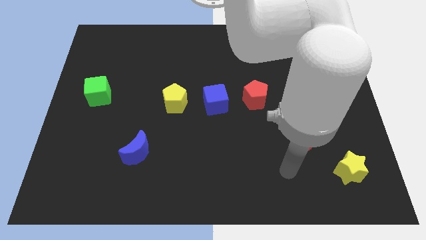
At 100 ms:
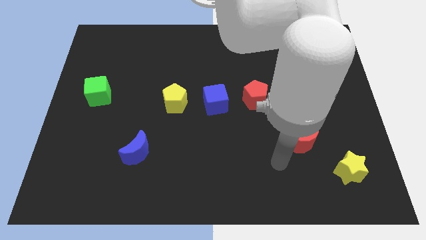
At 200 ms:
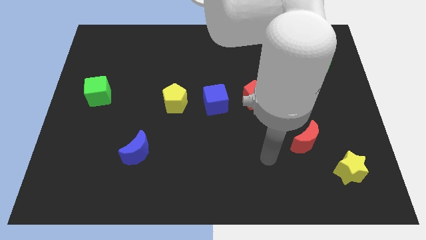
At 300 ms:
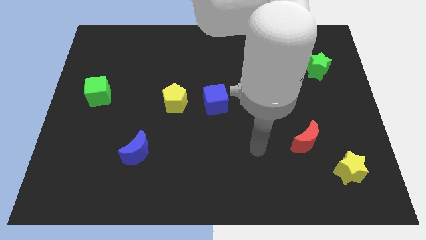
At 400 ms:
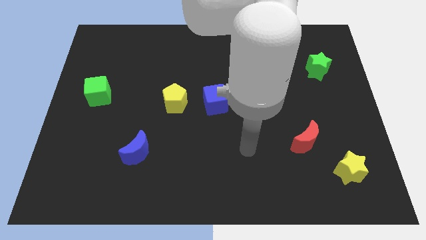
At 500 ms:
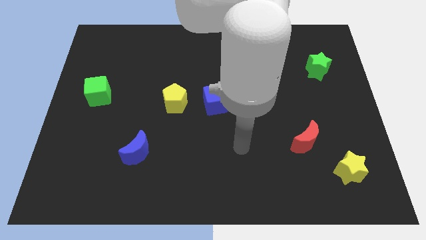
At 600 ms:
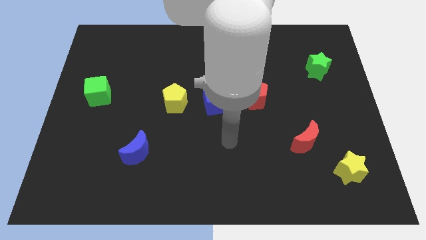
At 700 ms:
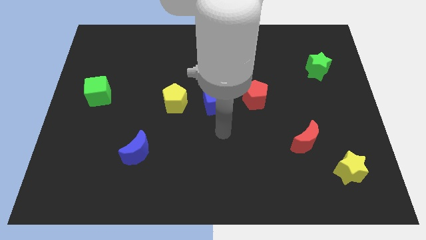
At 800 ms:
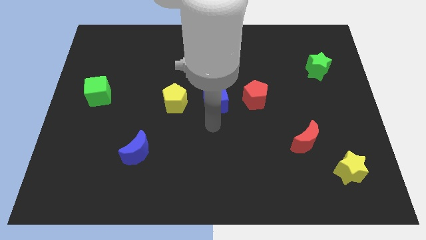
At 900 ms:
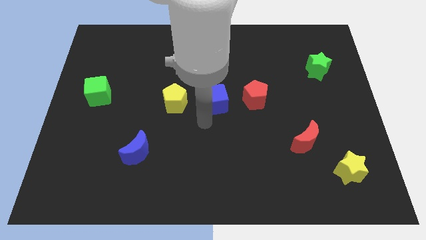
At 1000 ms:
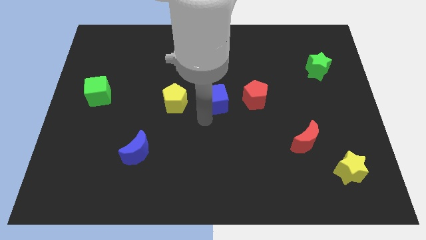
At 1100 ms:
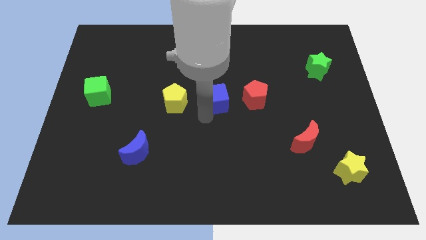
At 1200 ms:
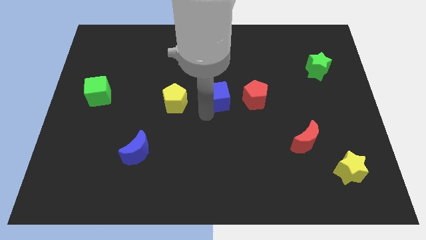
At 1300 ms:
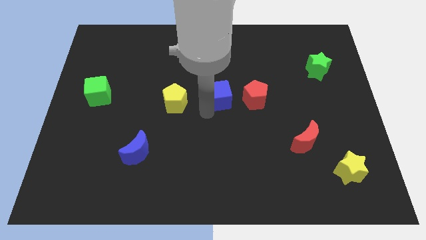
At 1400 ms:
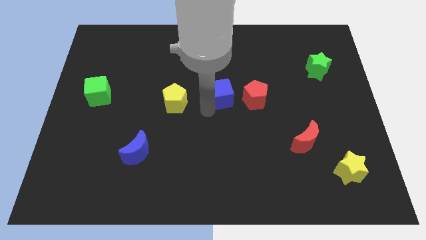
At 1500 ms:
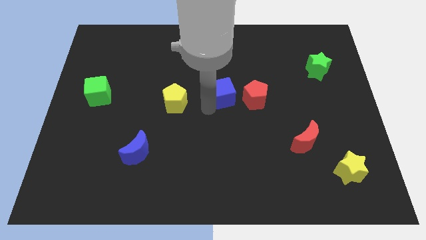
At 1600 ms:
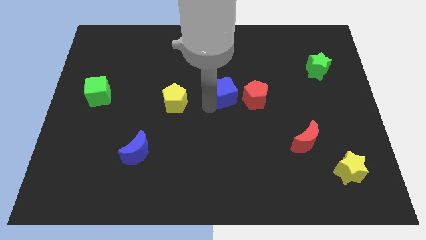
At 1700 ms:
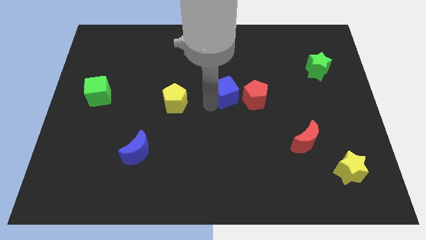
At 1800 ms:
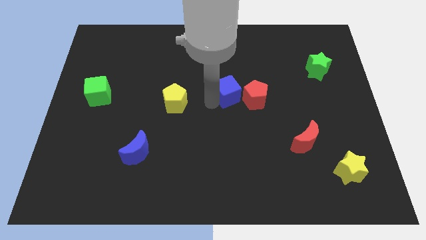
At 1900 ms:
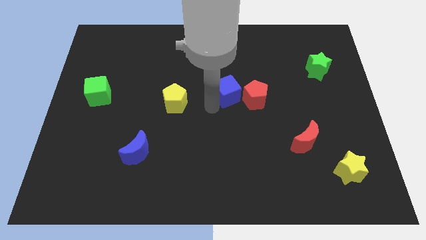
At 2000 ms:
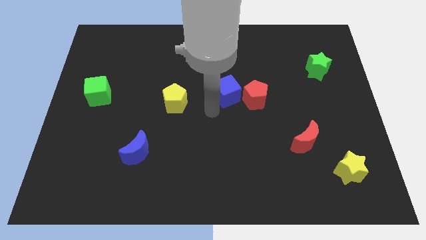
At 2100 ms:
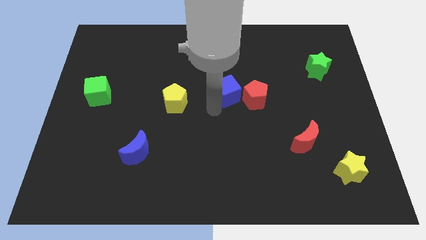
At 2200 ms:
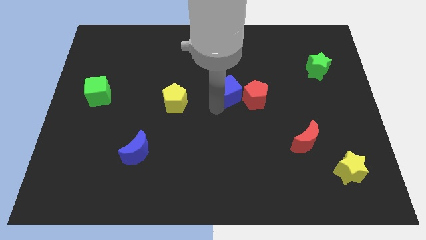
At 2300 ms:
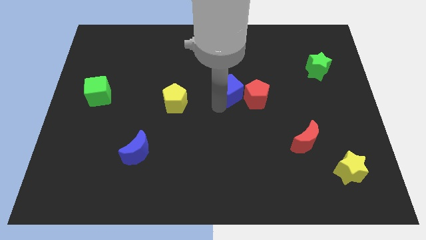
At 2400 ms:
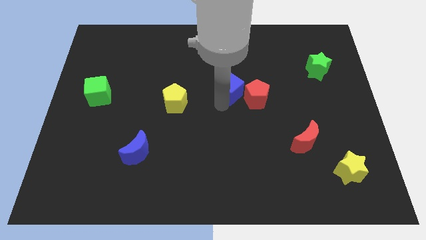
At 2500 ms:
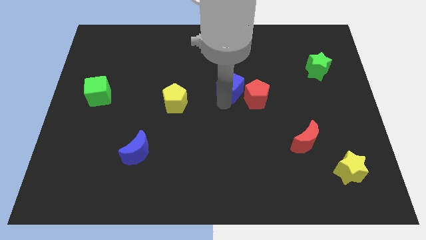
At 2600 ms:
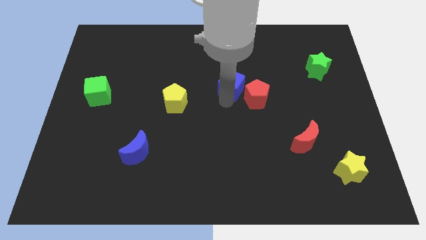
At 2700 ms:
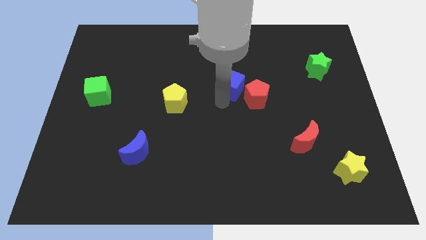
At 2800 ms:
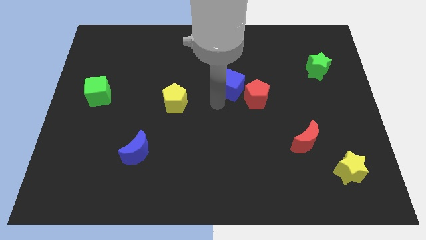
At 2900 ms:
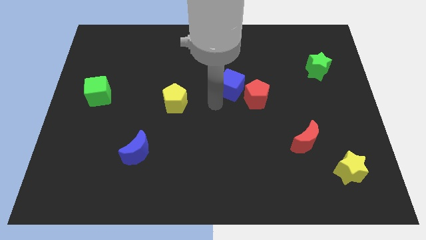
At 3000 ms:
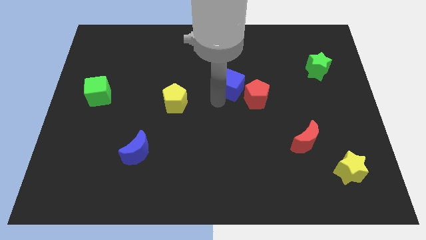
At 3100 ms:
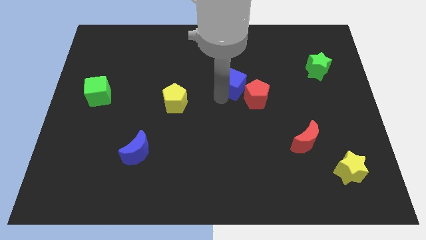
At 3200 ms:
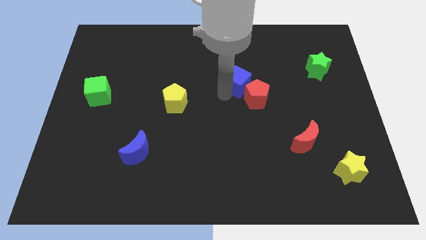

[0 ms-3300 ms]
slide the blue cube diagonally up and right a bit

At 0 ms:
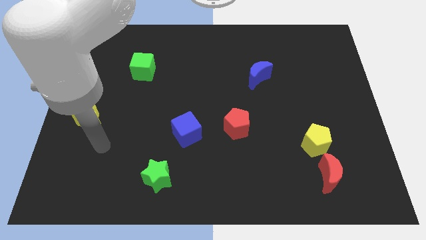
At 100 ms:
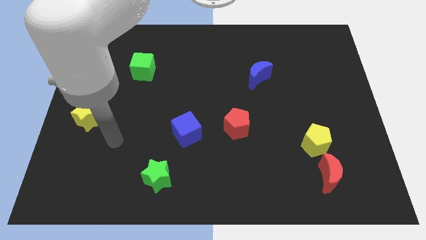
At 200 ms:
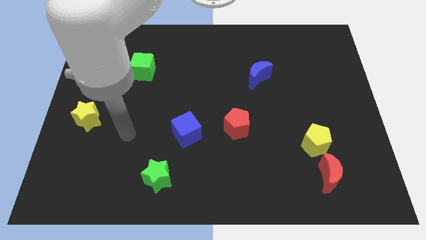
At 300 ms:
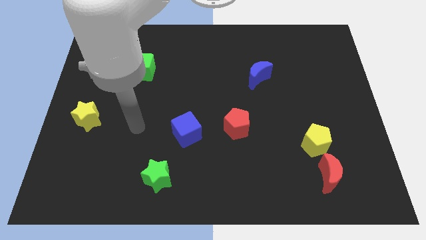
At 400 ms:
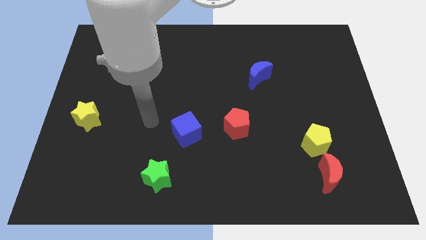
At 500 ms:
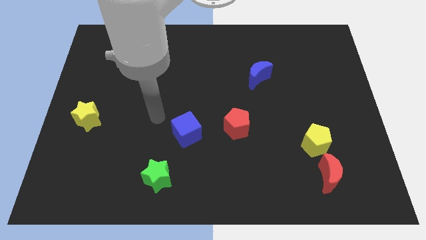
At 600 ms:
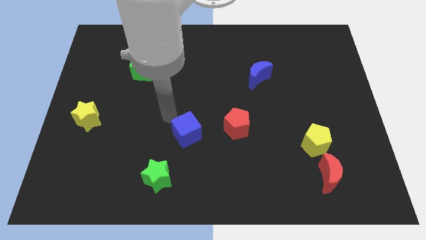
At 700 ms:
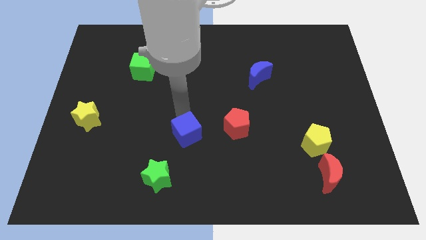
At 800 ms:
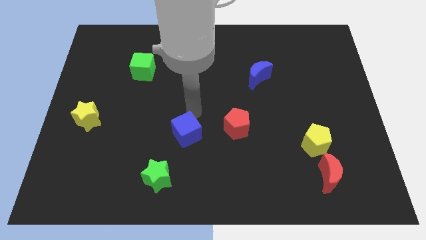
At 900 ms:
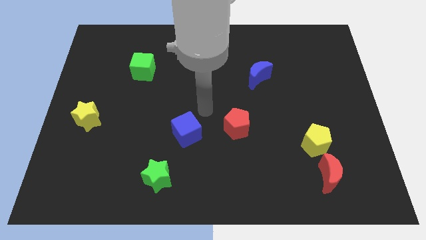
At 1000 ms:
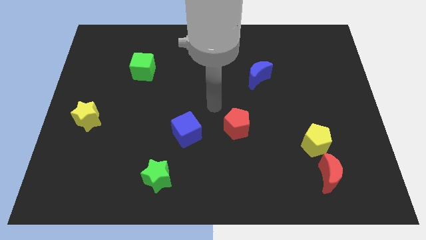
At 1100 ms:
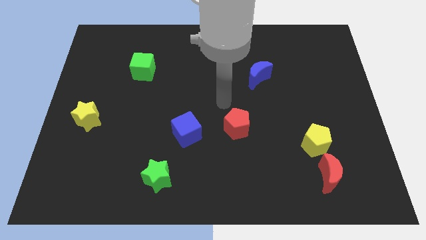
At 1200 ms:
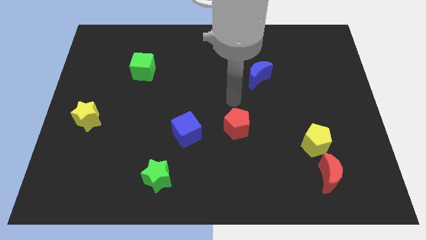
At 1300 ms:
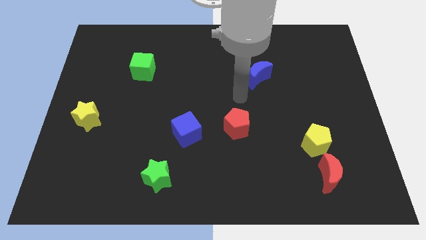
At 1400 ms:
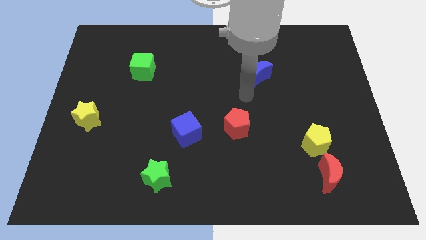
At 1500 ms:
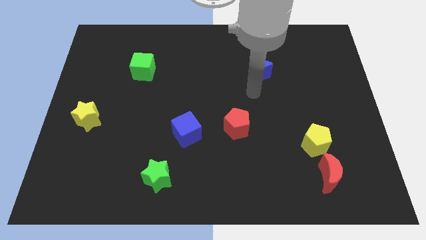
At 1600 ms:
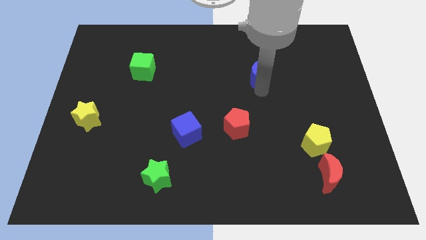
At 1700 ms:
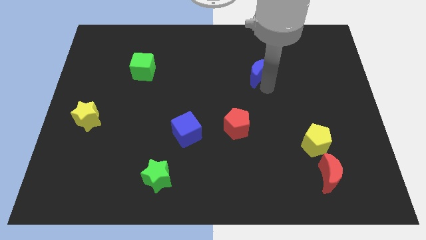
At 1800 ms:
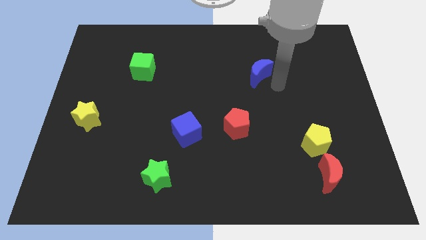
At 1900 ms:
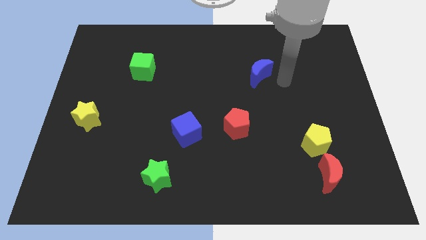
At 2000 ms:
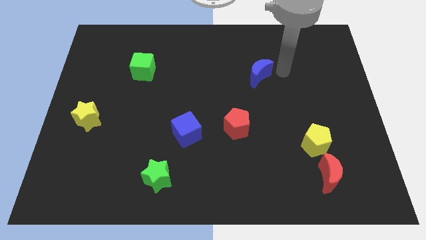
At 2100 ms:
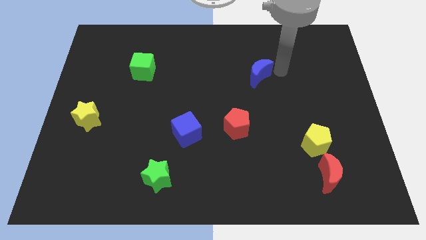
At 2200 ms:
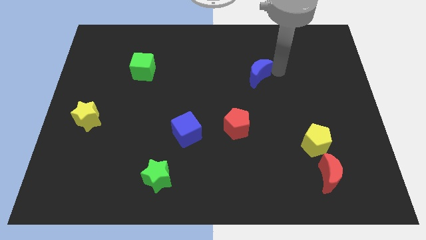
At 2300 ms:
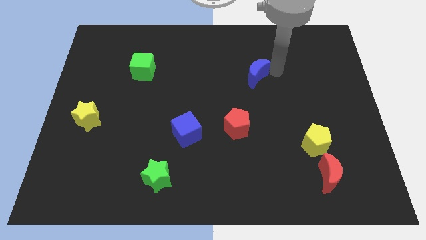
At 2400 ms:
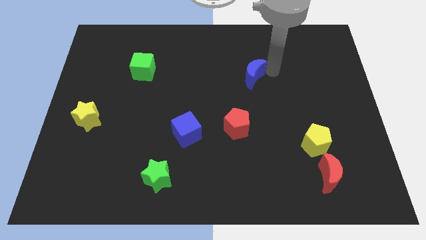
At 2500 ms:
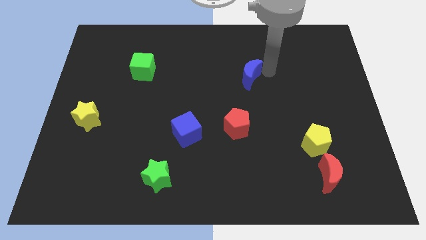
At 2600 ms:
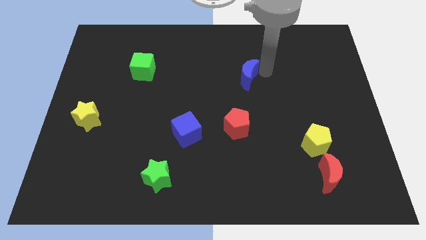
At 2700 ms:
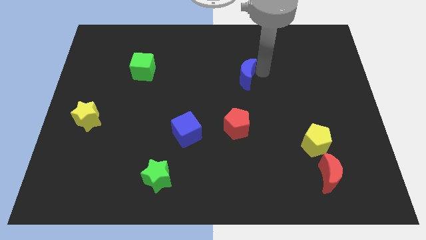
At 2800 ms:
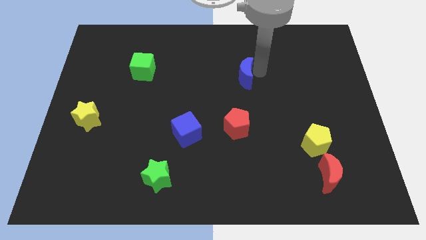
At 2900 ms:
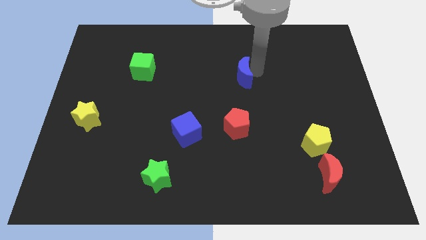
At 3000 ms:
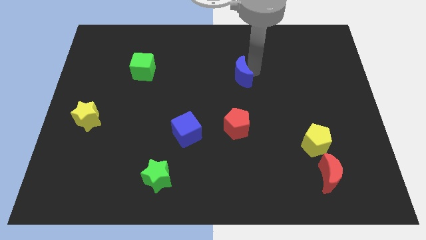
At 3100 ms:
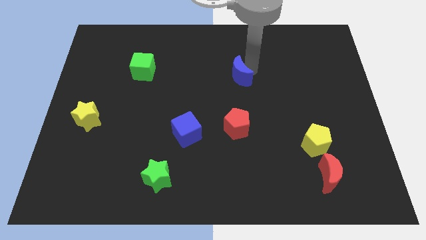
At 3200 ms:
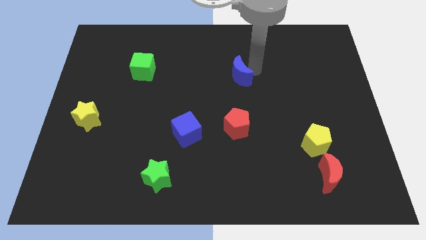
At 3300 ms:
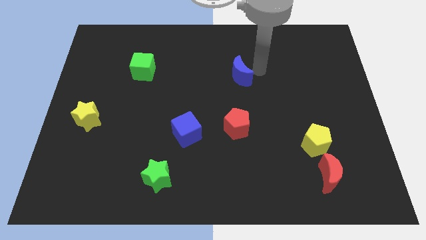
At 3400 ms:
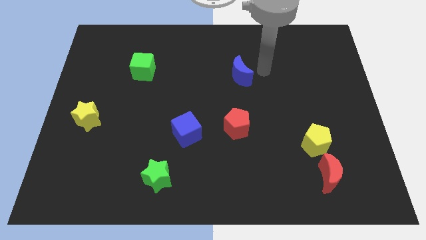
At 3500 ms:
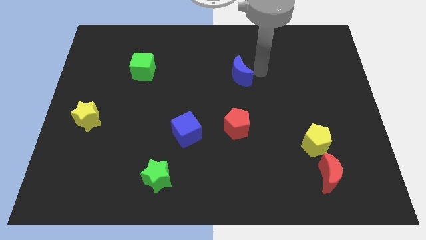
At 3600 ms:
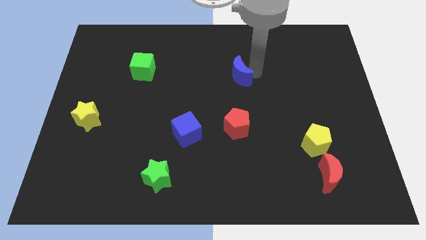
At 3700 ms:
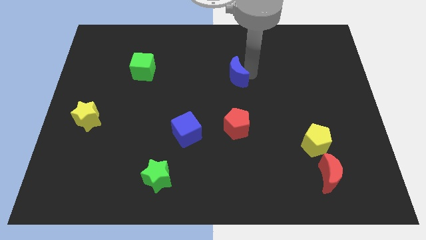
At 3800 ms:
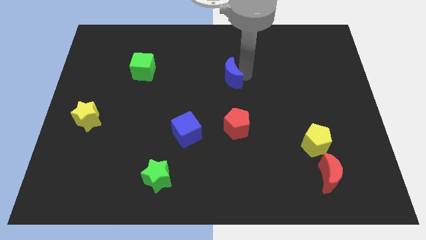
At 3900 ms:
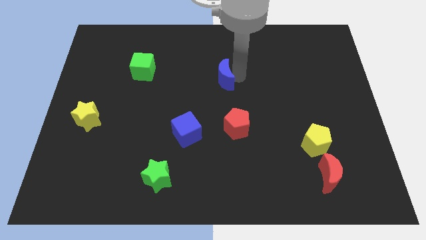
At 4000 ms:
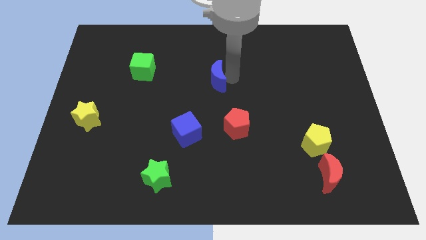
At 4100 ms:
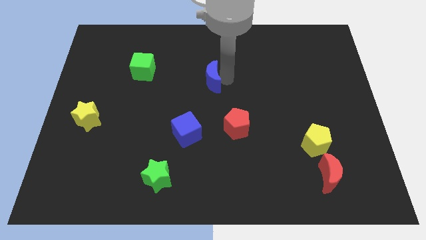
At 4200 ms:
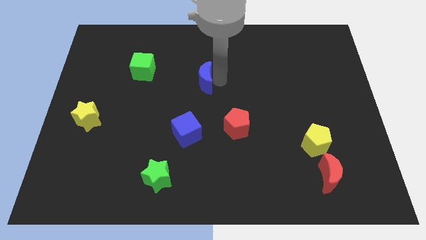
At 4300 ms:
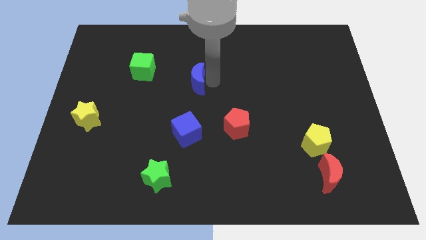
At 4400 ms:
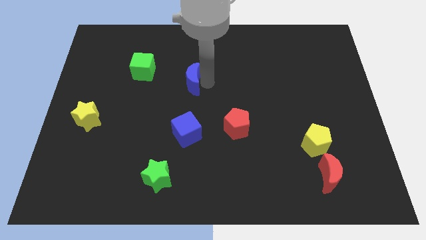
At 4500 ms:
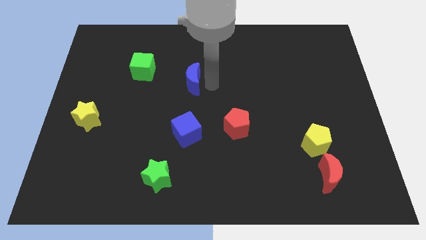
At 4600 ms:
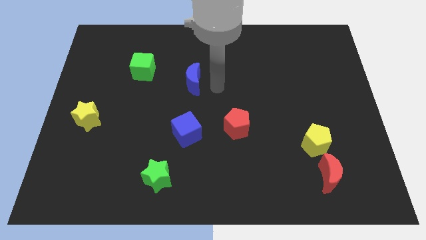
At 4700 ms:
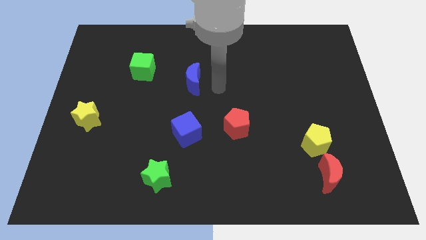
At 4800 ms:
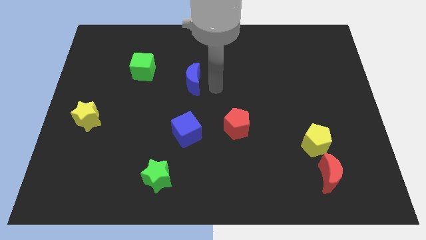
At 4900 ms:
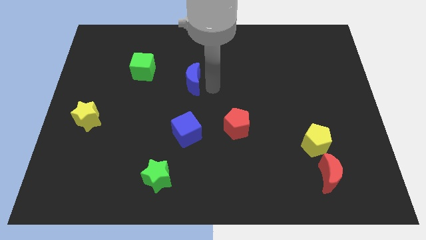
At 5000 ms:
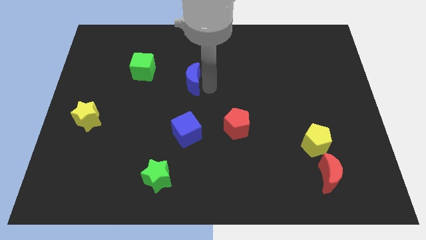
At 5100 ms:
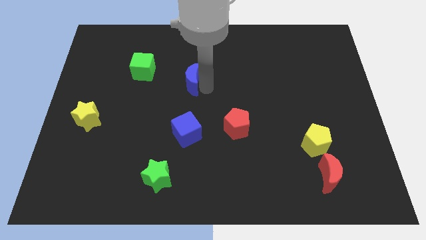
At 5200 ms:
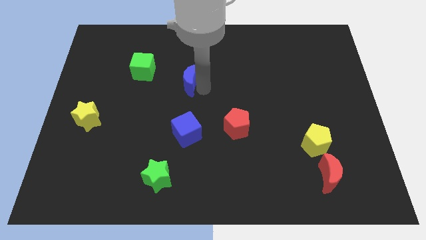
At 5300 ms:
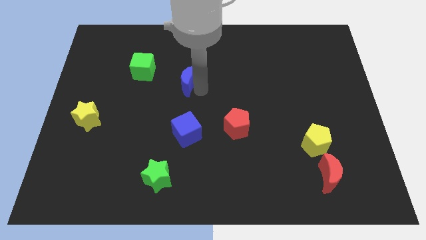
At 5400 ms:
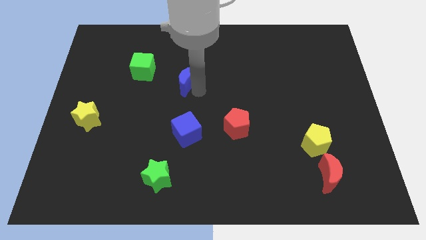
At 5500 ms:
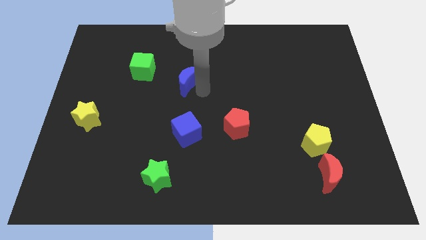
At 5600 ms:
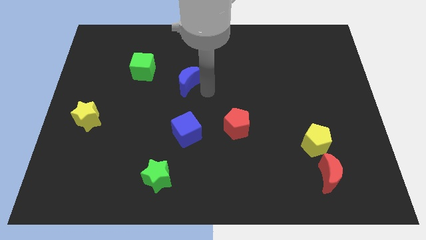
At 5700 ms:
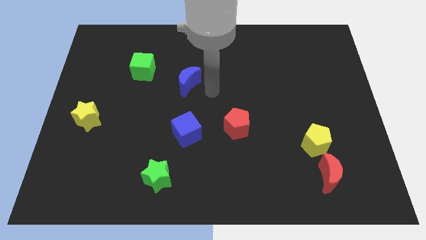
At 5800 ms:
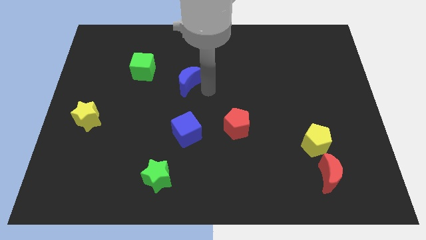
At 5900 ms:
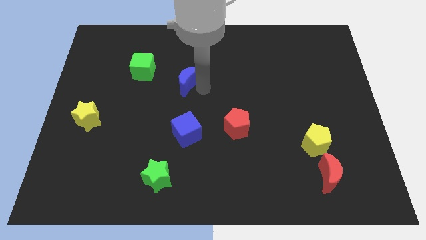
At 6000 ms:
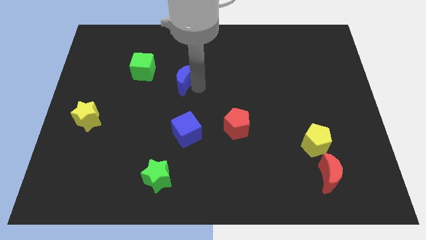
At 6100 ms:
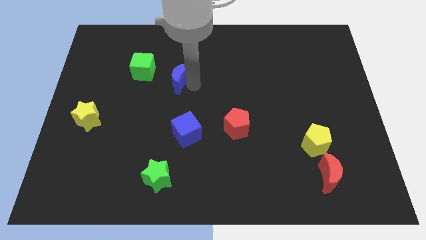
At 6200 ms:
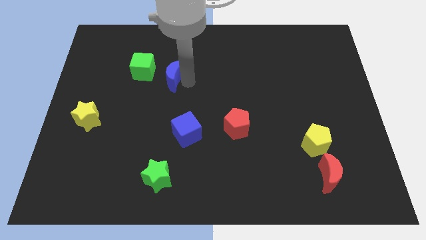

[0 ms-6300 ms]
push the blue moon to the left
